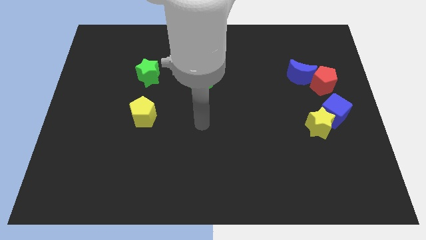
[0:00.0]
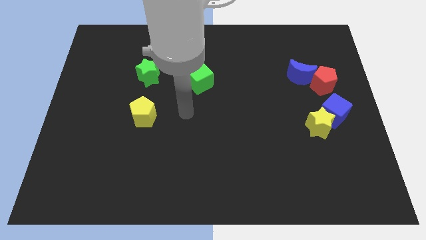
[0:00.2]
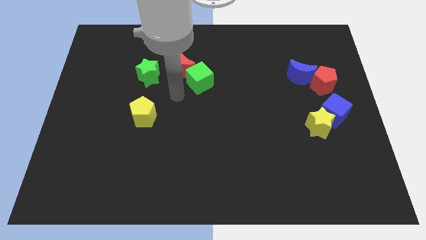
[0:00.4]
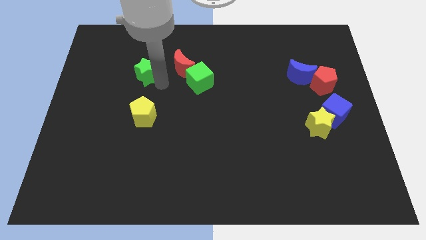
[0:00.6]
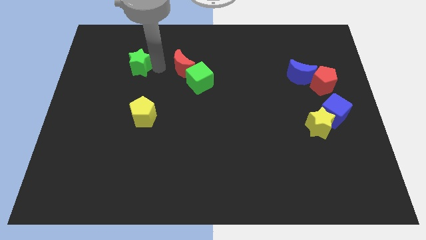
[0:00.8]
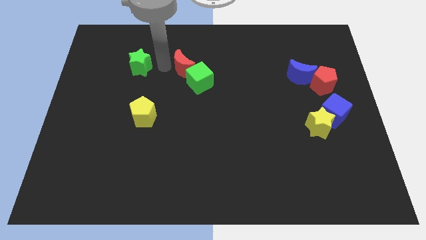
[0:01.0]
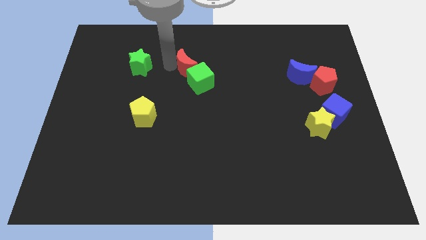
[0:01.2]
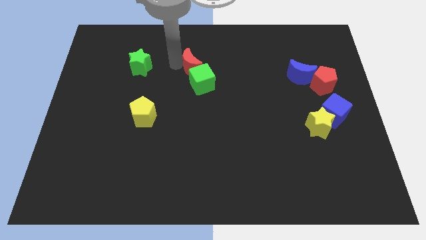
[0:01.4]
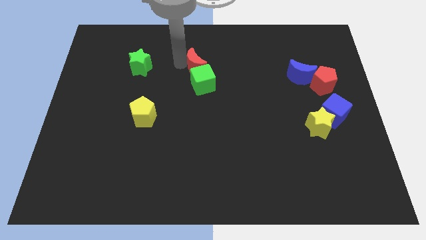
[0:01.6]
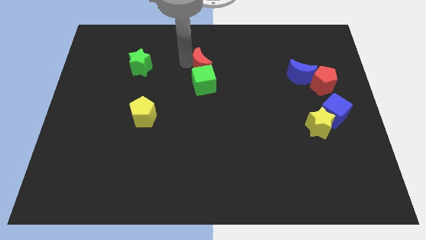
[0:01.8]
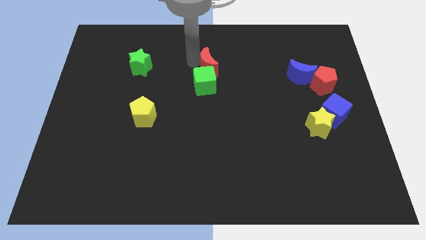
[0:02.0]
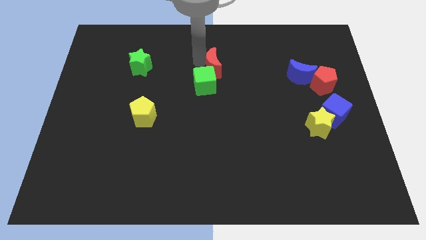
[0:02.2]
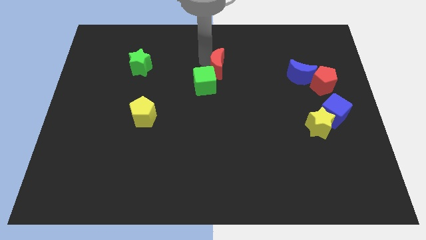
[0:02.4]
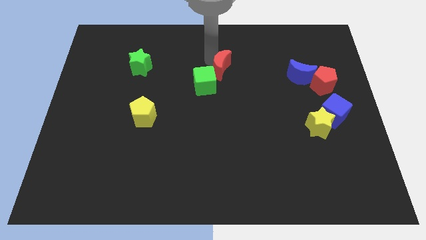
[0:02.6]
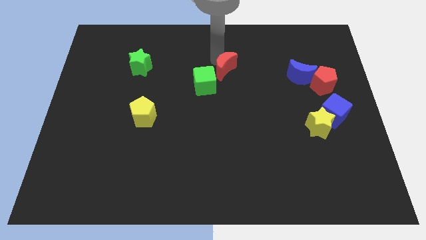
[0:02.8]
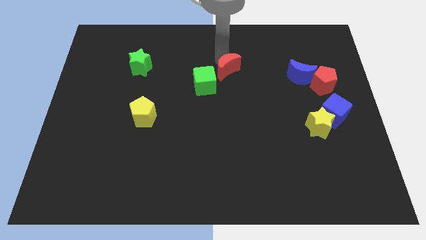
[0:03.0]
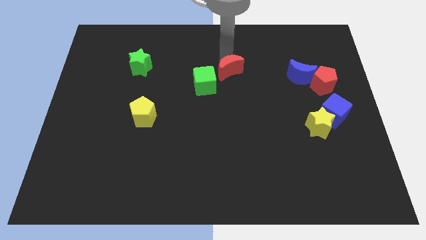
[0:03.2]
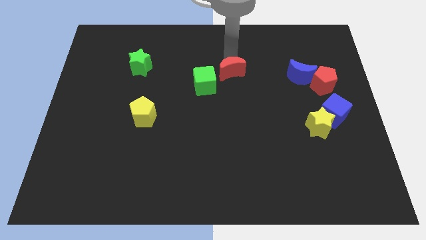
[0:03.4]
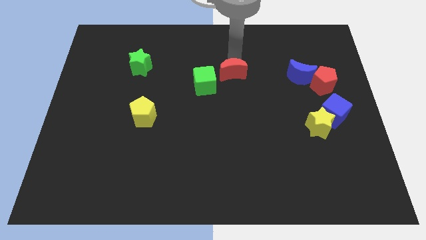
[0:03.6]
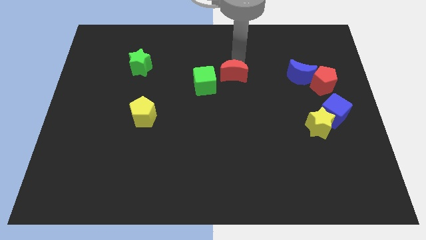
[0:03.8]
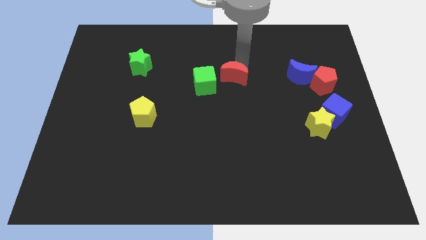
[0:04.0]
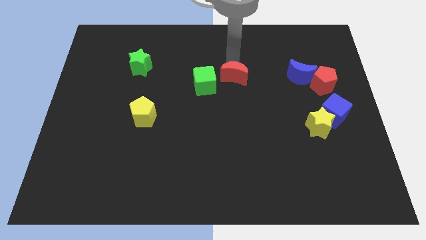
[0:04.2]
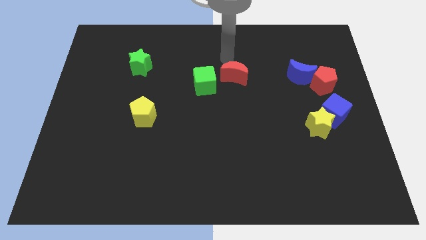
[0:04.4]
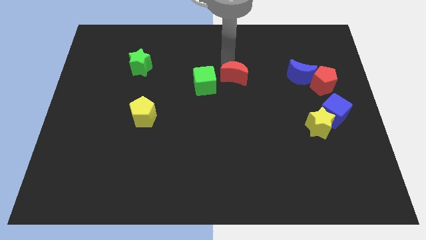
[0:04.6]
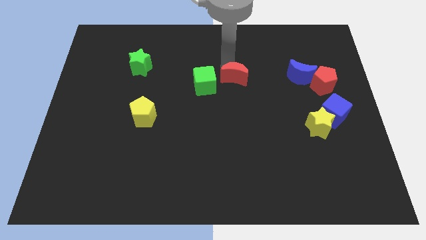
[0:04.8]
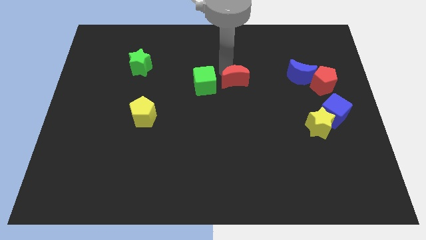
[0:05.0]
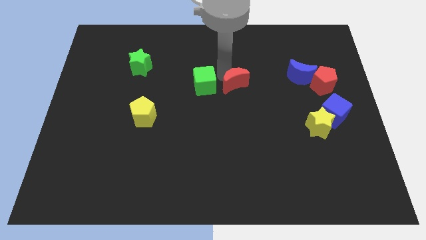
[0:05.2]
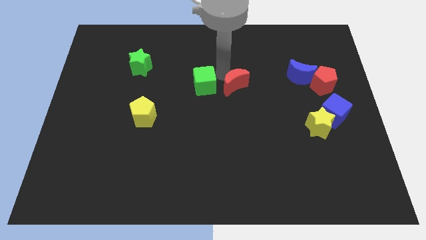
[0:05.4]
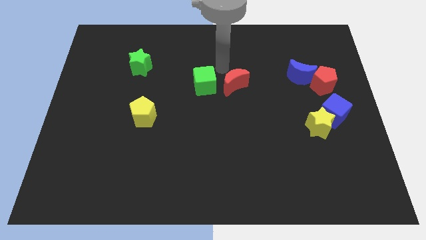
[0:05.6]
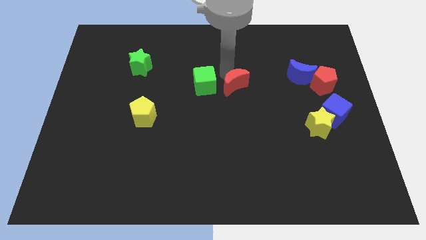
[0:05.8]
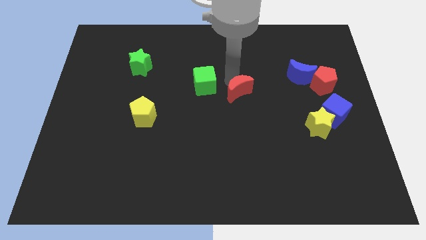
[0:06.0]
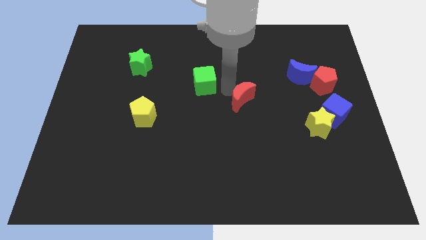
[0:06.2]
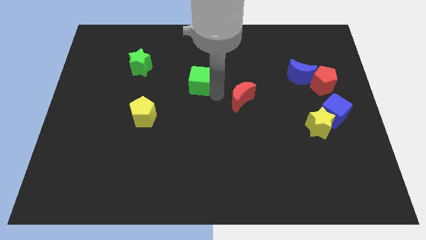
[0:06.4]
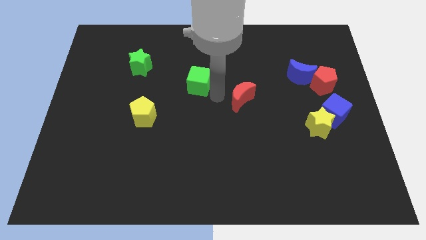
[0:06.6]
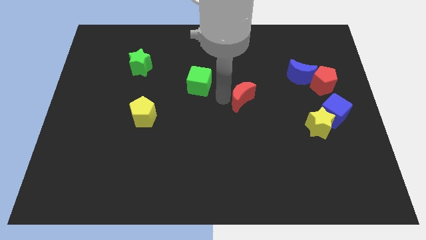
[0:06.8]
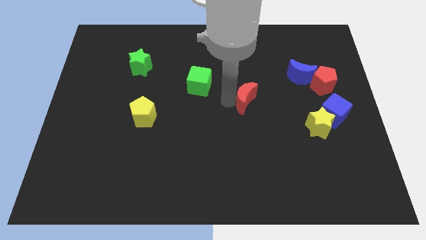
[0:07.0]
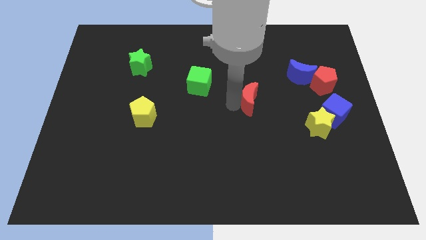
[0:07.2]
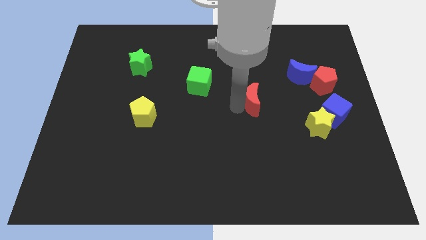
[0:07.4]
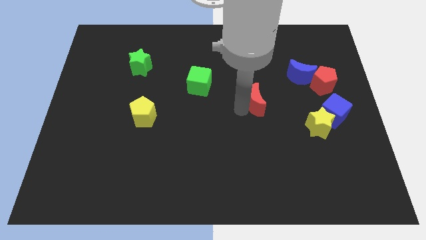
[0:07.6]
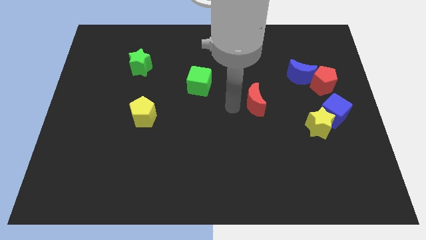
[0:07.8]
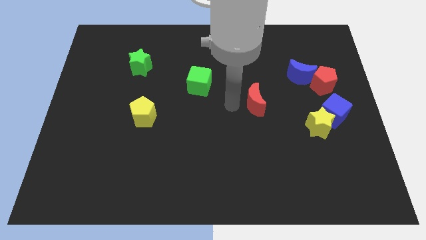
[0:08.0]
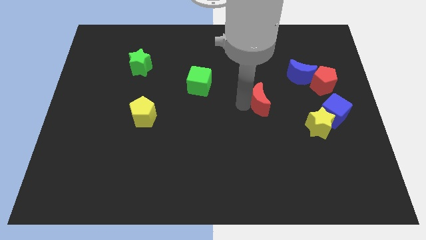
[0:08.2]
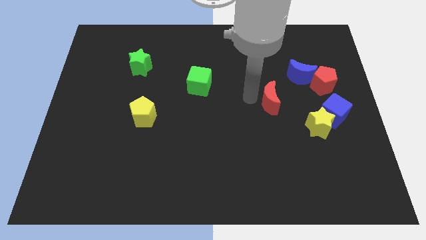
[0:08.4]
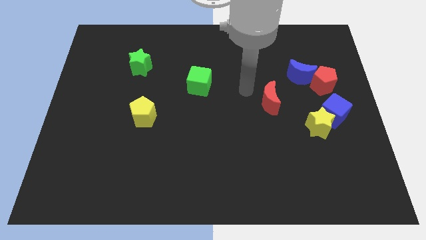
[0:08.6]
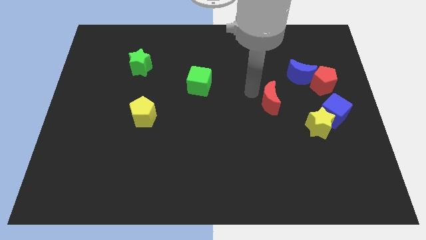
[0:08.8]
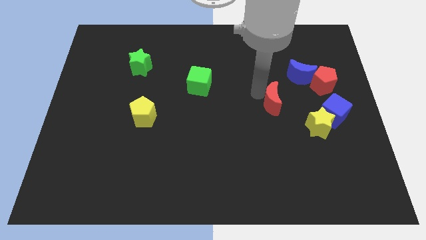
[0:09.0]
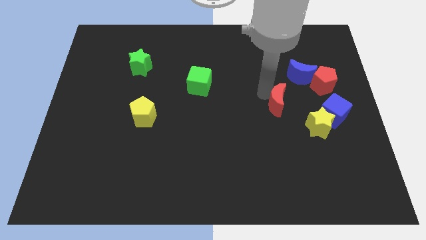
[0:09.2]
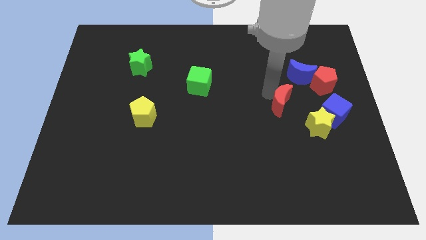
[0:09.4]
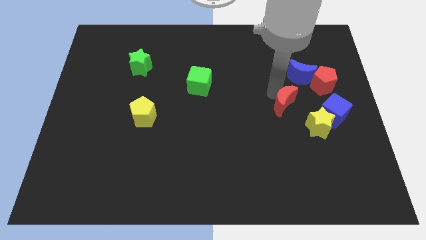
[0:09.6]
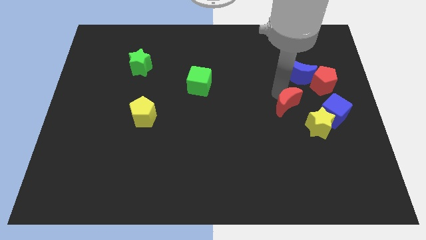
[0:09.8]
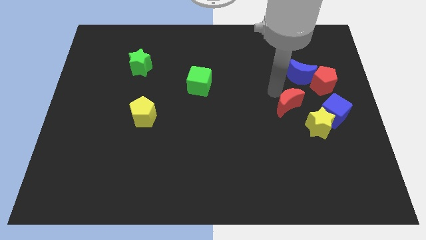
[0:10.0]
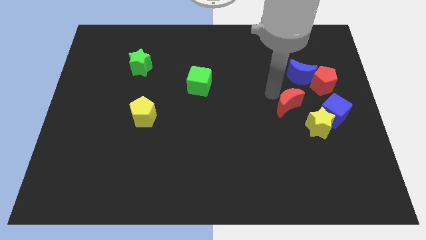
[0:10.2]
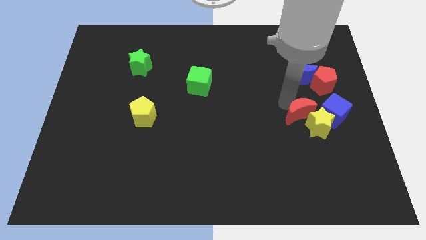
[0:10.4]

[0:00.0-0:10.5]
move the red moon close to the yellow star

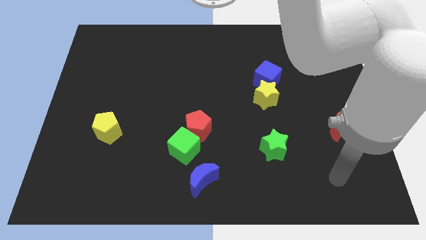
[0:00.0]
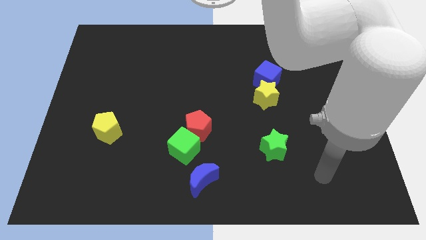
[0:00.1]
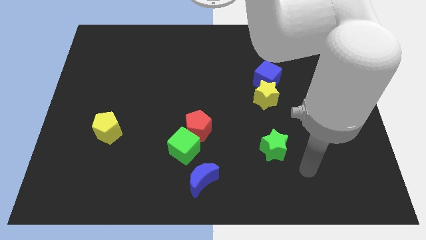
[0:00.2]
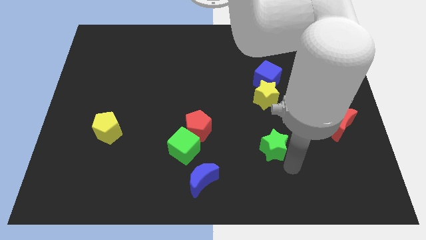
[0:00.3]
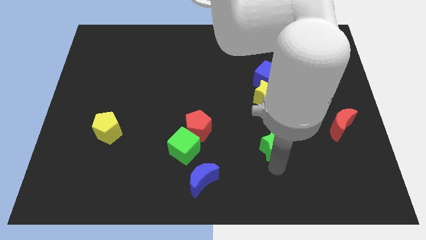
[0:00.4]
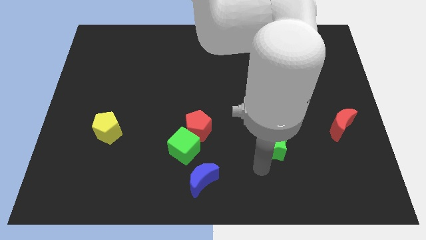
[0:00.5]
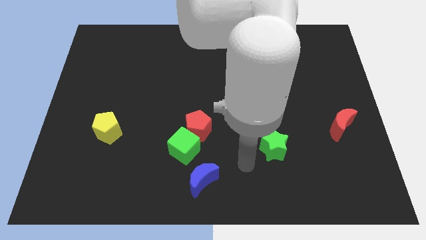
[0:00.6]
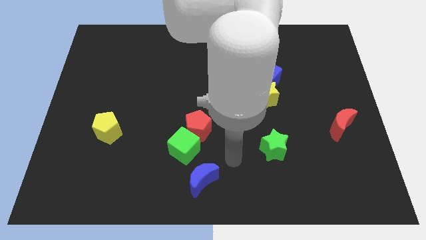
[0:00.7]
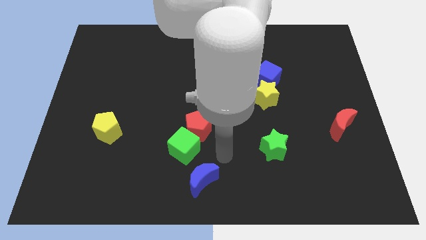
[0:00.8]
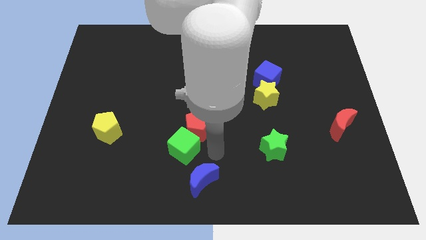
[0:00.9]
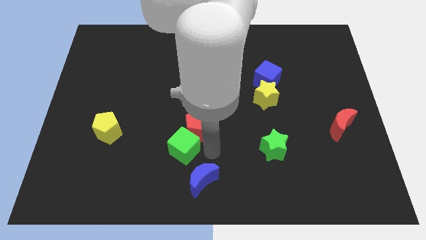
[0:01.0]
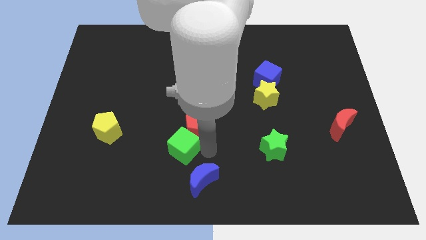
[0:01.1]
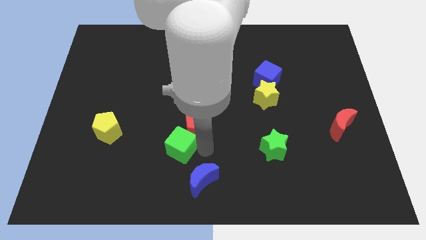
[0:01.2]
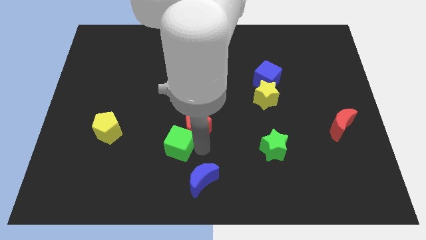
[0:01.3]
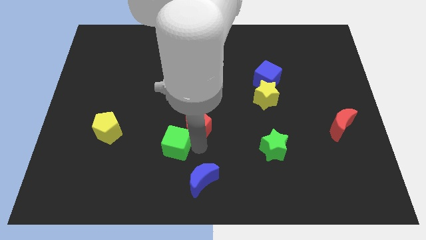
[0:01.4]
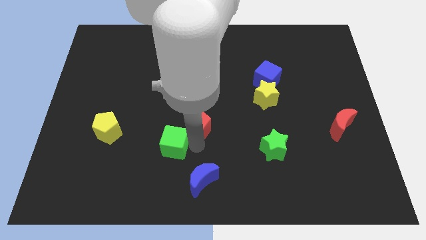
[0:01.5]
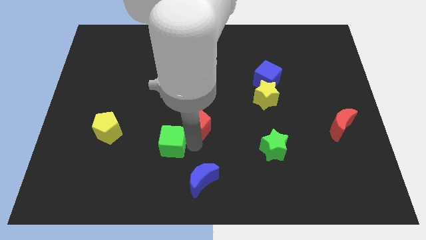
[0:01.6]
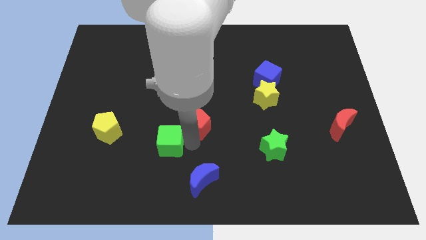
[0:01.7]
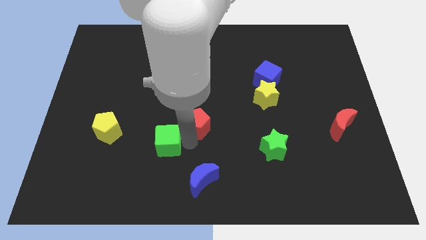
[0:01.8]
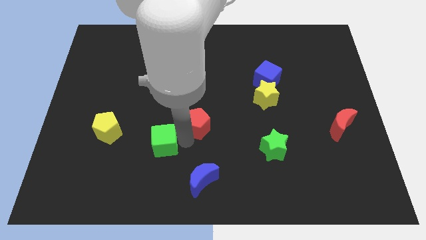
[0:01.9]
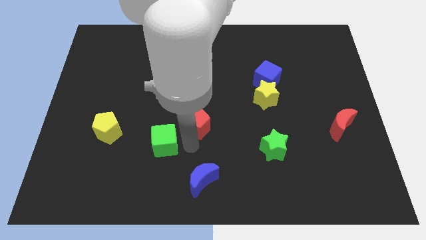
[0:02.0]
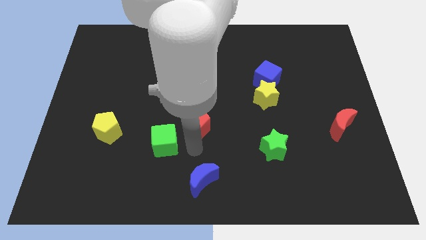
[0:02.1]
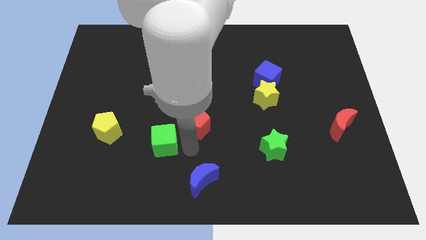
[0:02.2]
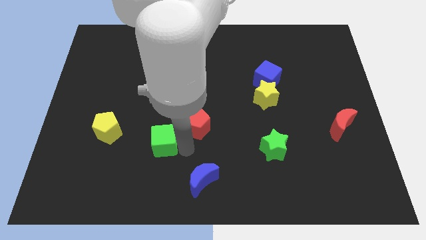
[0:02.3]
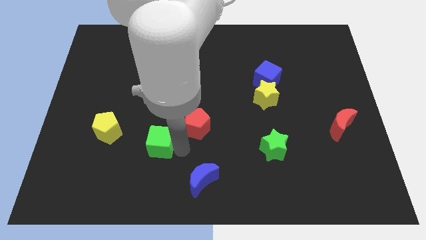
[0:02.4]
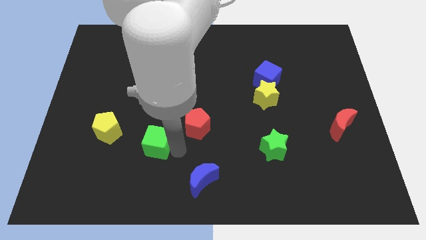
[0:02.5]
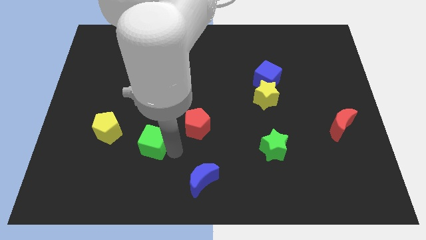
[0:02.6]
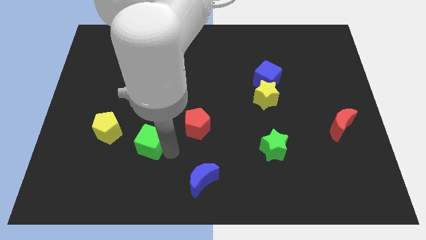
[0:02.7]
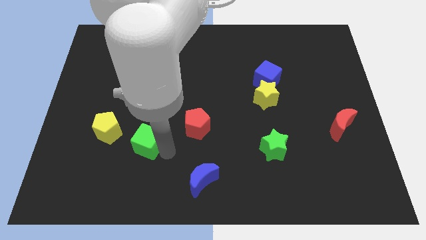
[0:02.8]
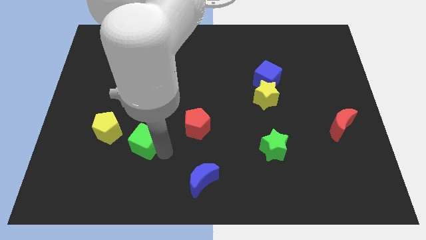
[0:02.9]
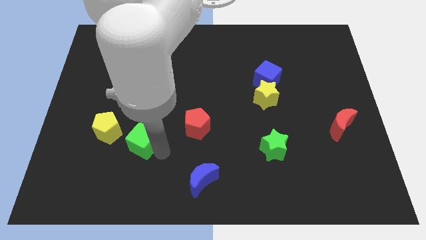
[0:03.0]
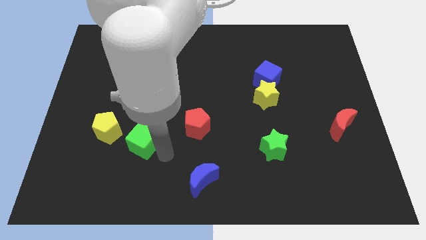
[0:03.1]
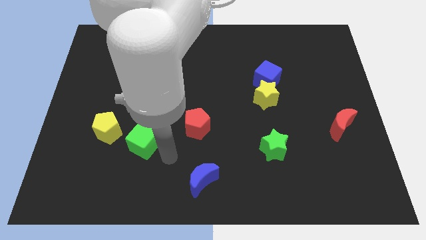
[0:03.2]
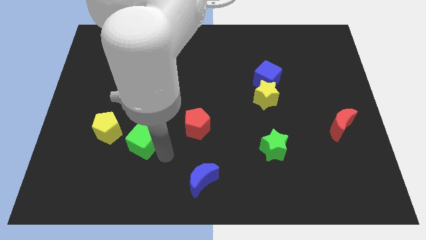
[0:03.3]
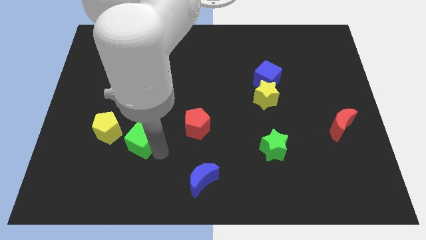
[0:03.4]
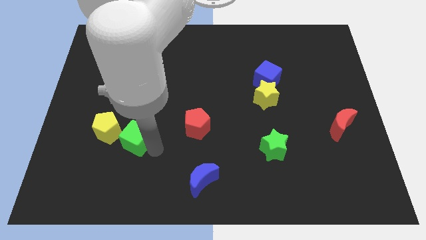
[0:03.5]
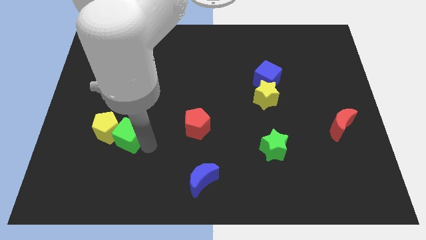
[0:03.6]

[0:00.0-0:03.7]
slide the green cube towards the yellow pentagon
